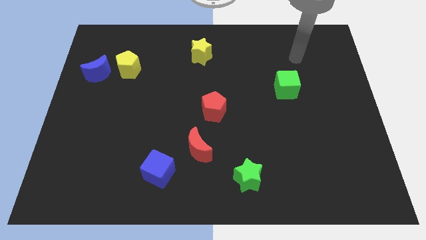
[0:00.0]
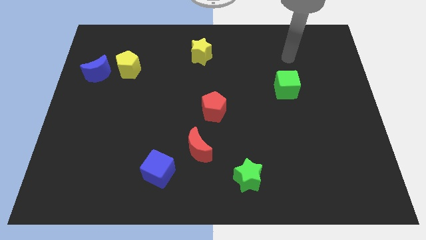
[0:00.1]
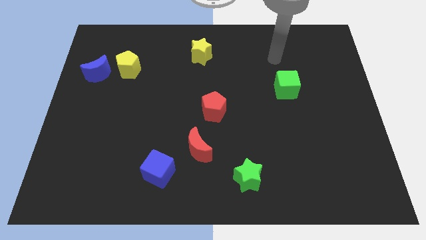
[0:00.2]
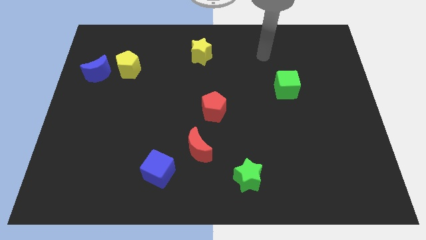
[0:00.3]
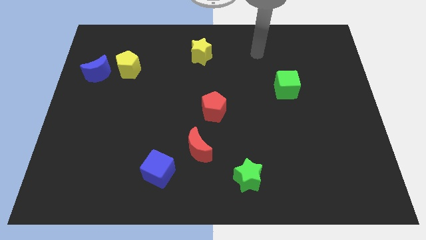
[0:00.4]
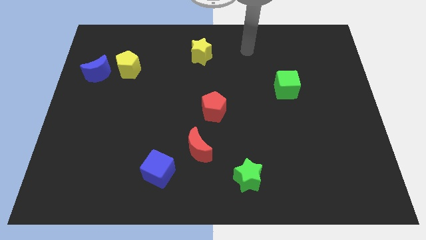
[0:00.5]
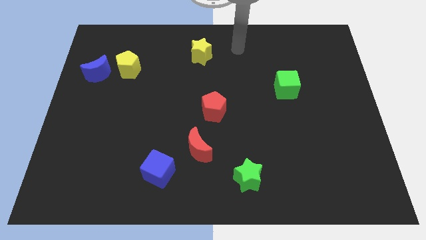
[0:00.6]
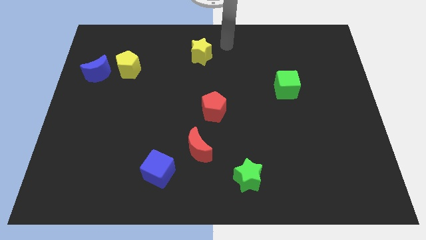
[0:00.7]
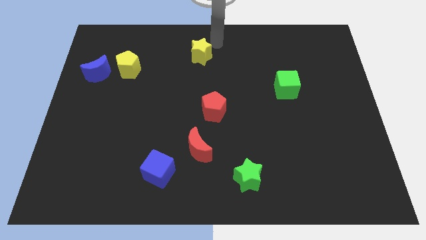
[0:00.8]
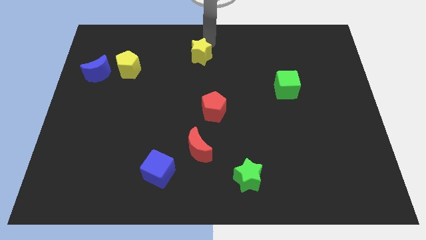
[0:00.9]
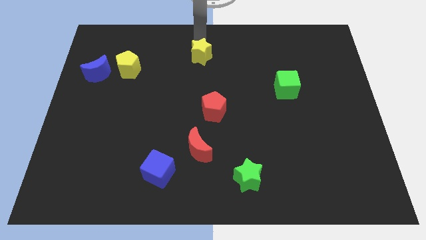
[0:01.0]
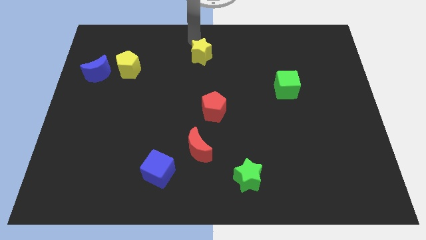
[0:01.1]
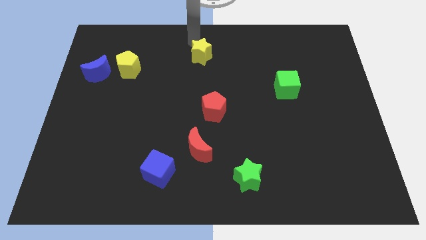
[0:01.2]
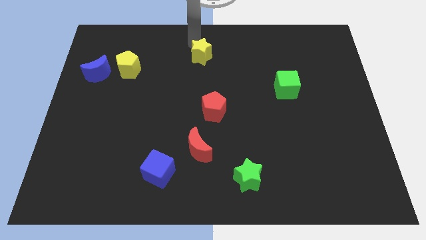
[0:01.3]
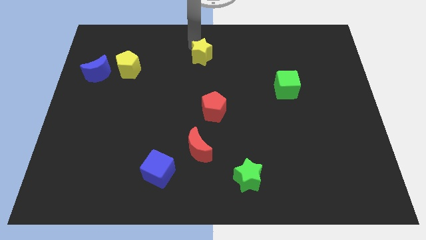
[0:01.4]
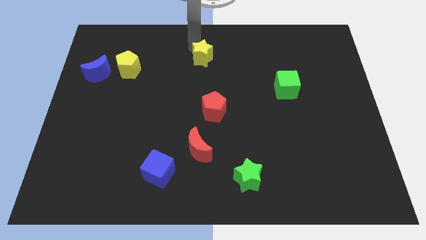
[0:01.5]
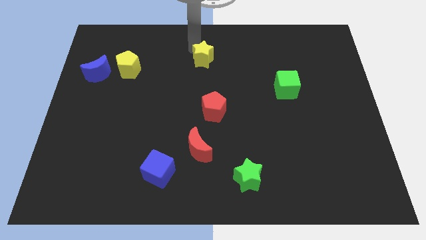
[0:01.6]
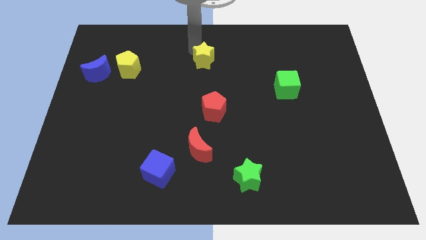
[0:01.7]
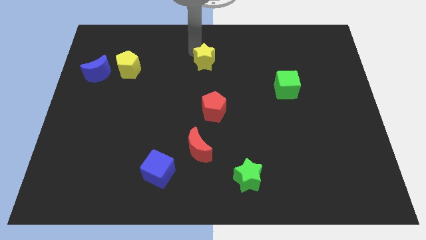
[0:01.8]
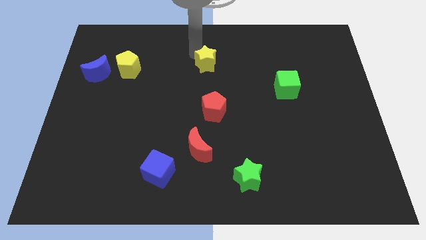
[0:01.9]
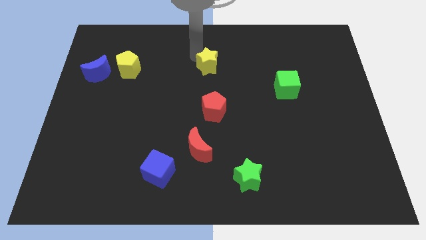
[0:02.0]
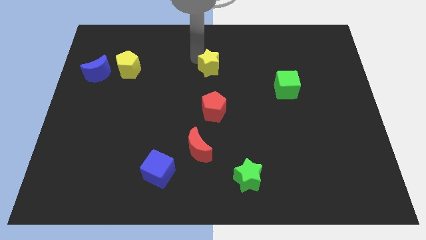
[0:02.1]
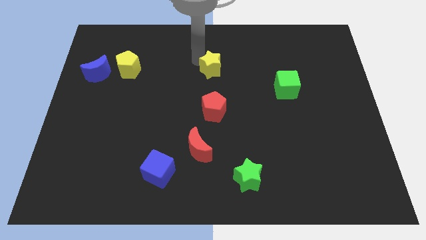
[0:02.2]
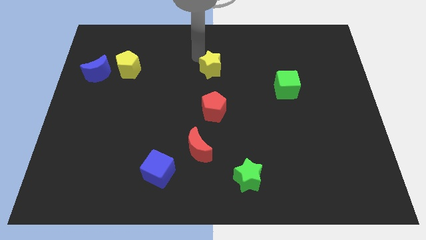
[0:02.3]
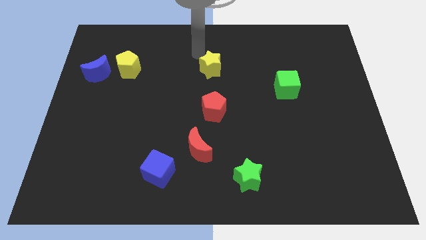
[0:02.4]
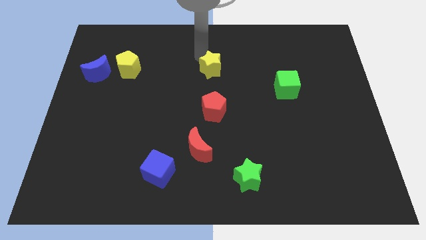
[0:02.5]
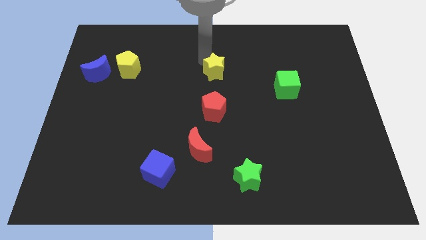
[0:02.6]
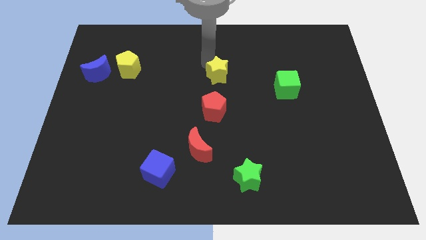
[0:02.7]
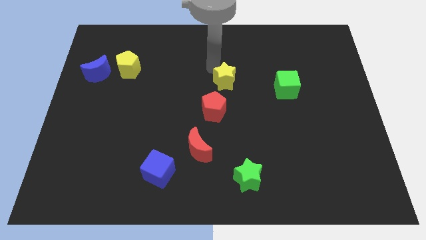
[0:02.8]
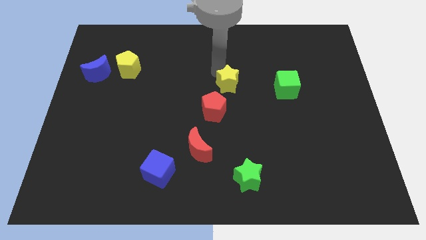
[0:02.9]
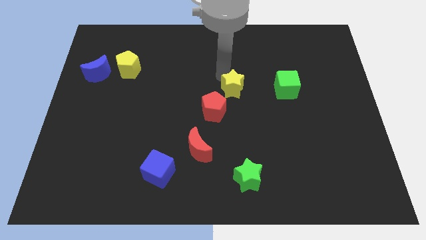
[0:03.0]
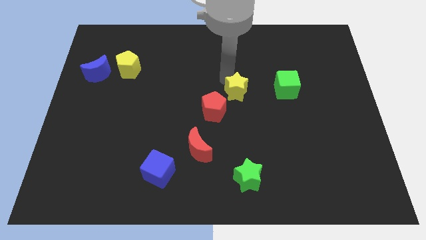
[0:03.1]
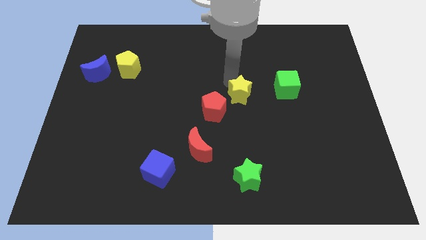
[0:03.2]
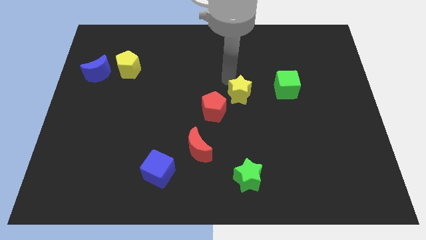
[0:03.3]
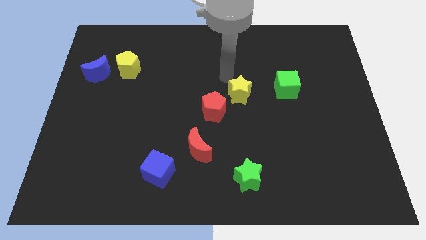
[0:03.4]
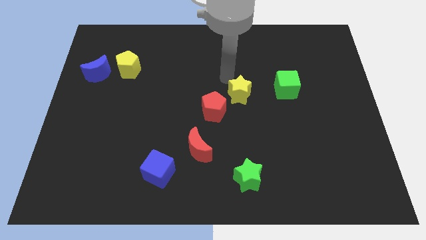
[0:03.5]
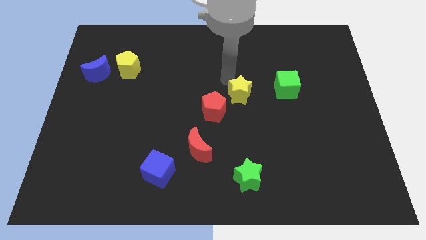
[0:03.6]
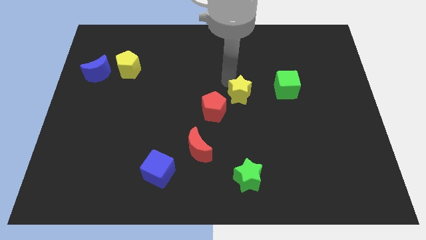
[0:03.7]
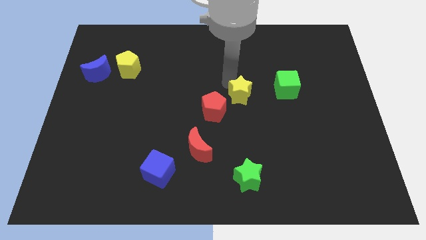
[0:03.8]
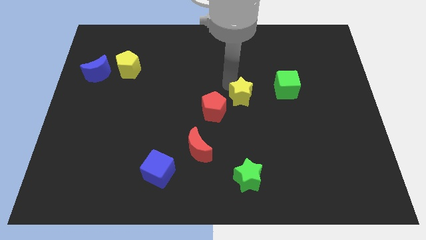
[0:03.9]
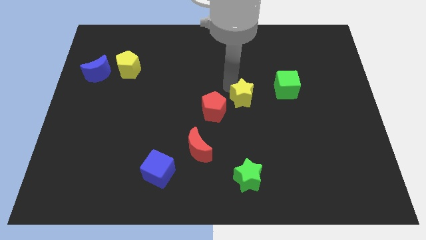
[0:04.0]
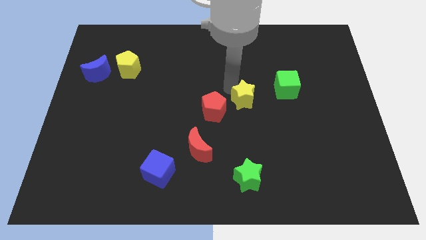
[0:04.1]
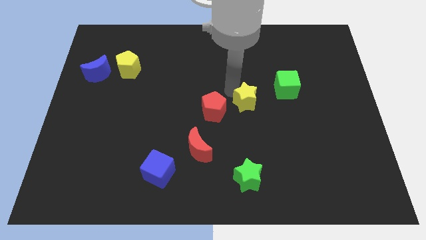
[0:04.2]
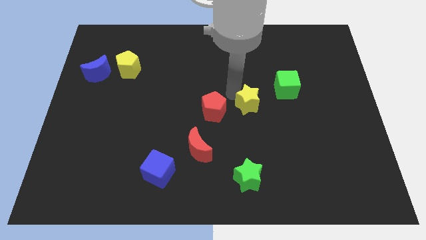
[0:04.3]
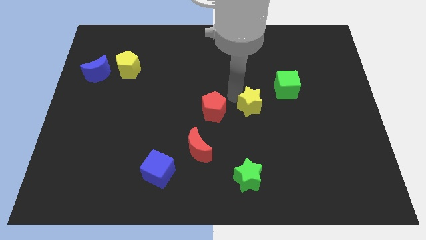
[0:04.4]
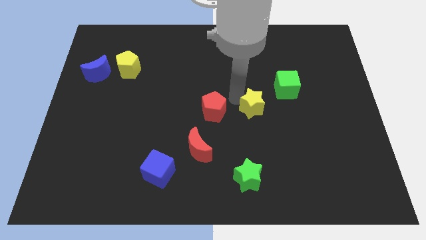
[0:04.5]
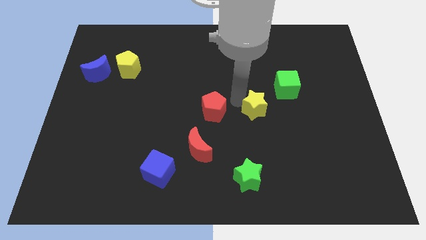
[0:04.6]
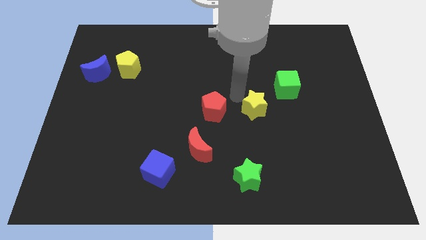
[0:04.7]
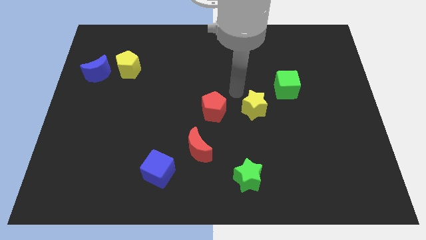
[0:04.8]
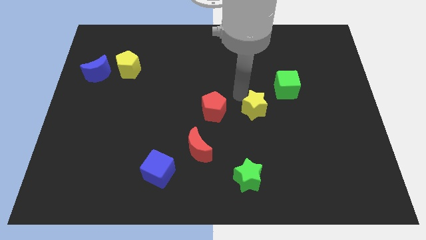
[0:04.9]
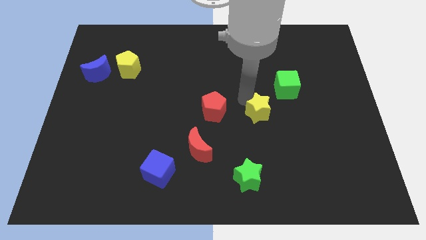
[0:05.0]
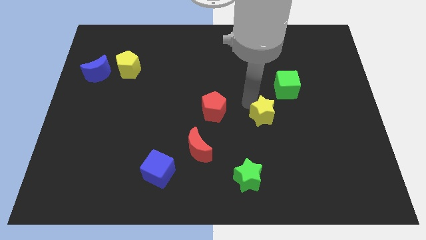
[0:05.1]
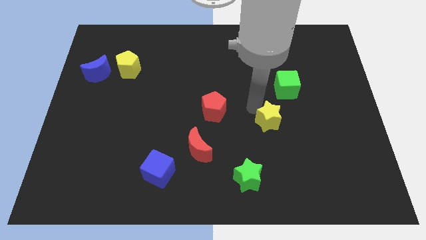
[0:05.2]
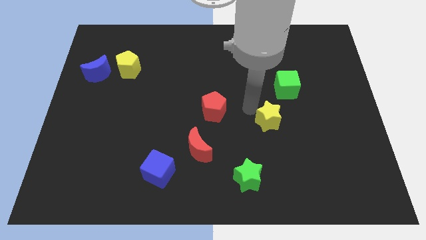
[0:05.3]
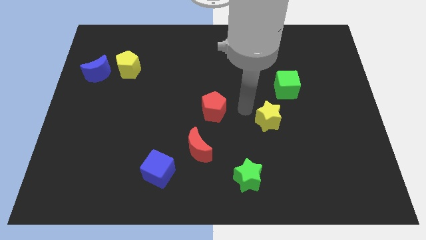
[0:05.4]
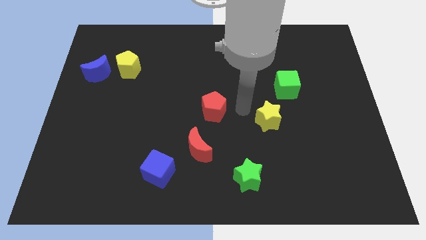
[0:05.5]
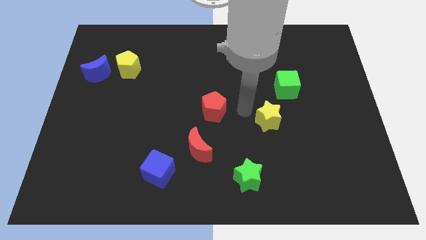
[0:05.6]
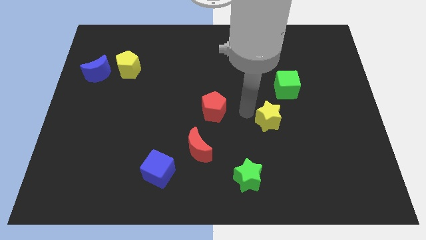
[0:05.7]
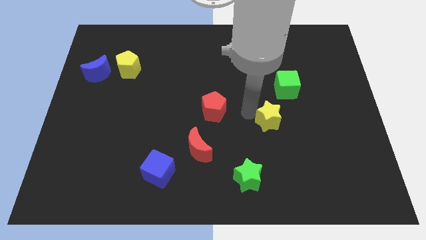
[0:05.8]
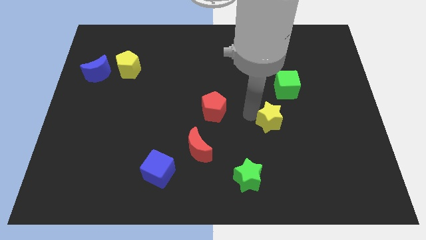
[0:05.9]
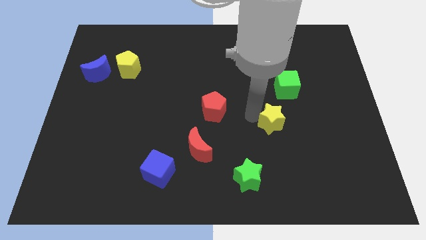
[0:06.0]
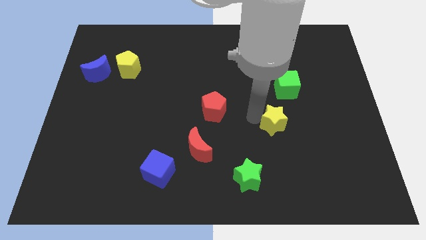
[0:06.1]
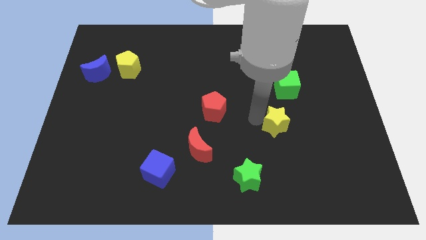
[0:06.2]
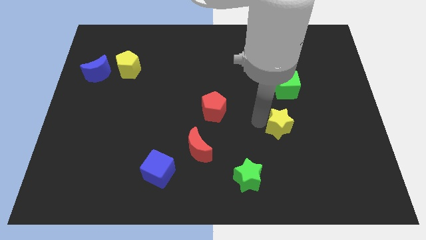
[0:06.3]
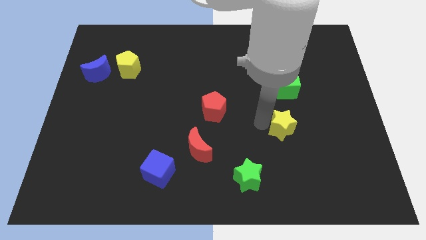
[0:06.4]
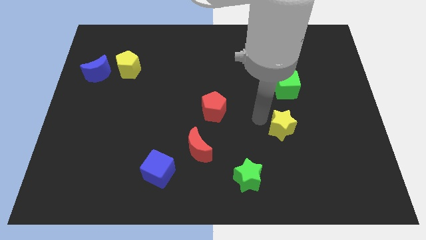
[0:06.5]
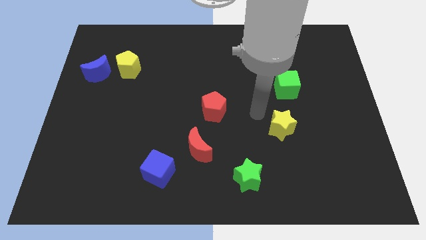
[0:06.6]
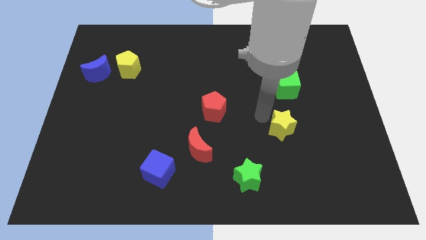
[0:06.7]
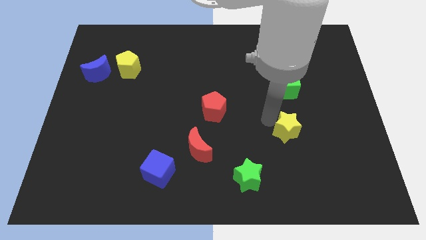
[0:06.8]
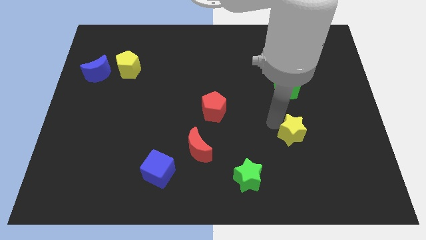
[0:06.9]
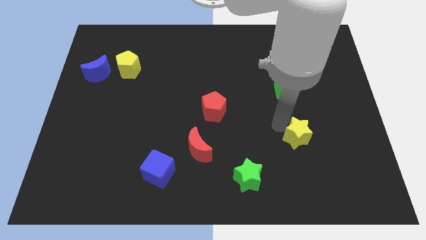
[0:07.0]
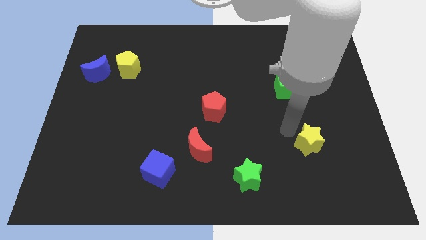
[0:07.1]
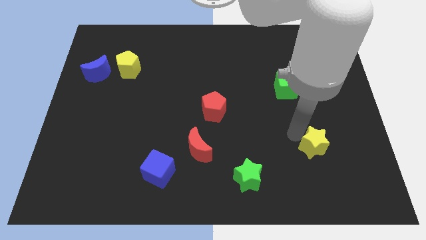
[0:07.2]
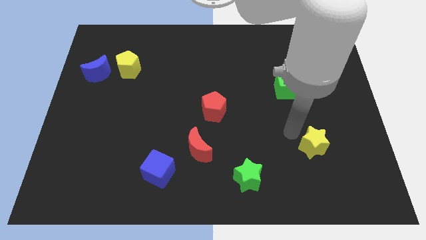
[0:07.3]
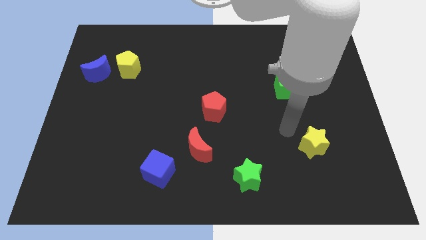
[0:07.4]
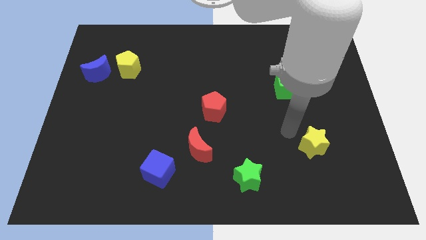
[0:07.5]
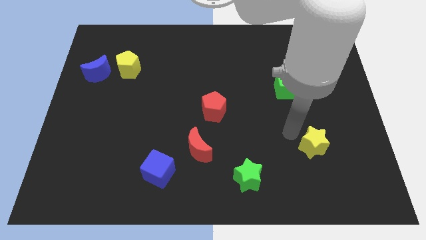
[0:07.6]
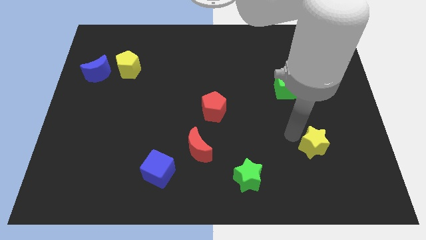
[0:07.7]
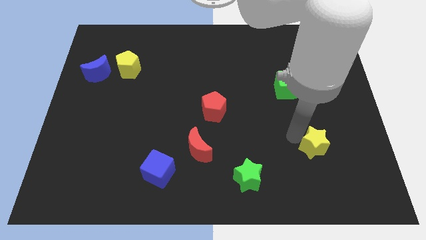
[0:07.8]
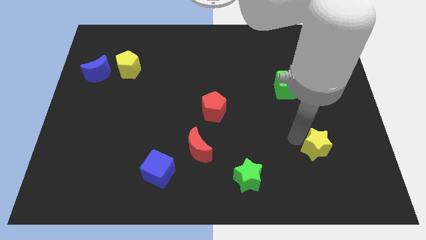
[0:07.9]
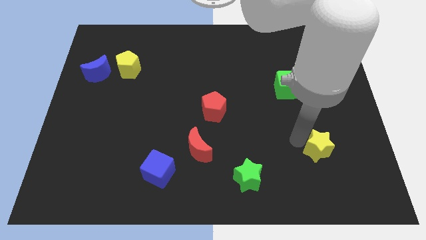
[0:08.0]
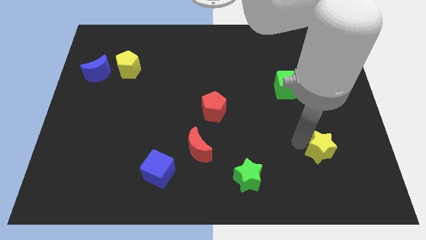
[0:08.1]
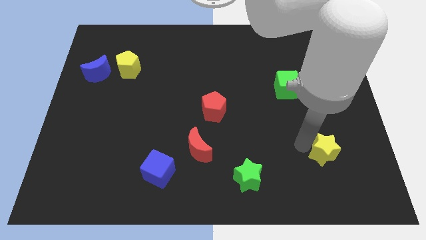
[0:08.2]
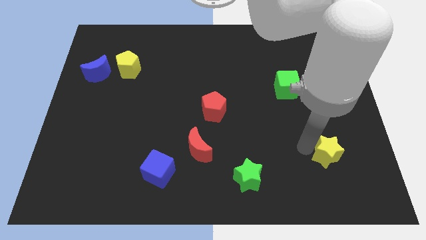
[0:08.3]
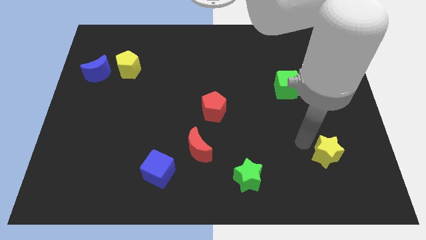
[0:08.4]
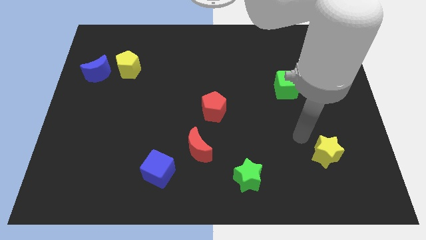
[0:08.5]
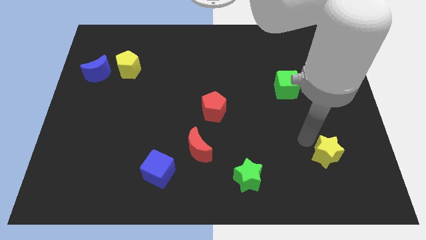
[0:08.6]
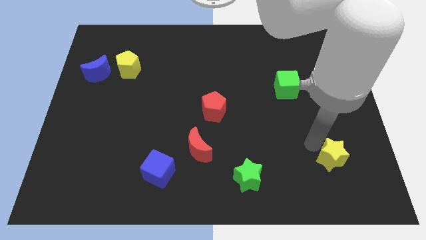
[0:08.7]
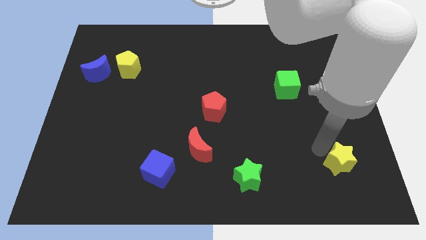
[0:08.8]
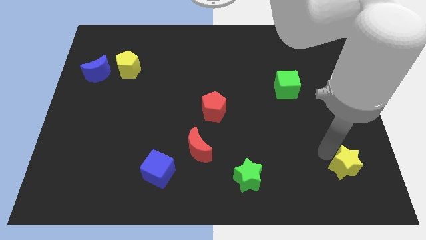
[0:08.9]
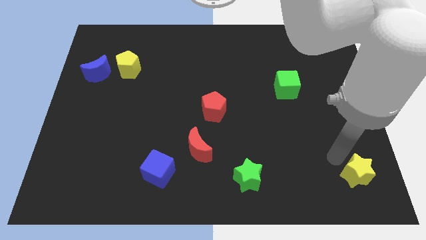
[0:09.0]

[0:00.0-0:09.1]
put the yellow star to the bottom right
